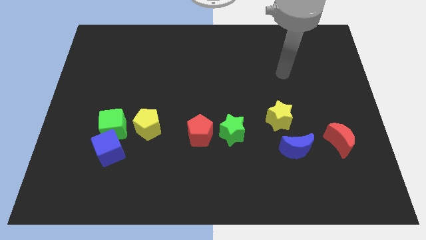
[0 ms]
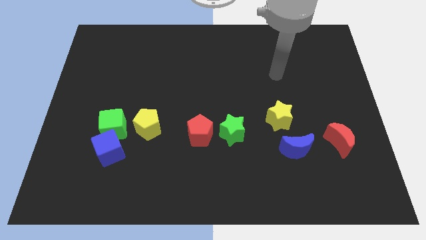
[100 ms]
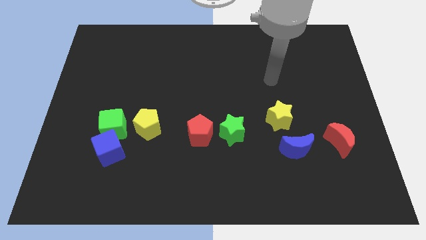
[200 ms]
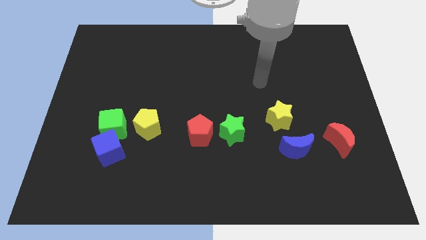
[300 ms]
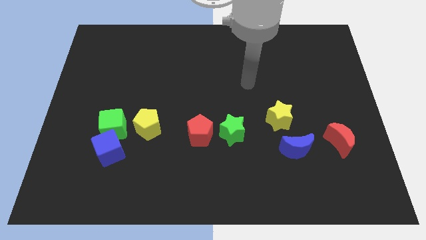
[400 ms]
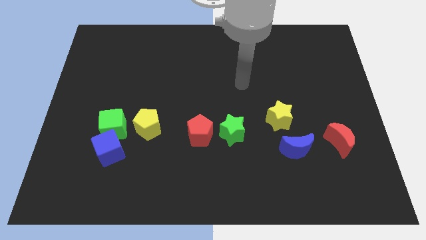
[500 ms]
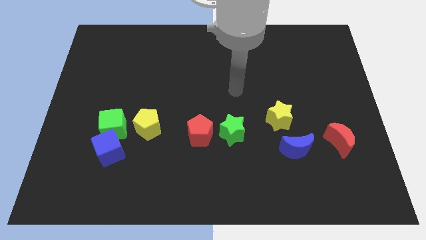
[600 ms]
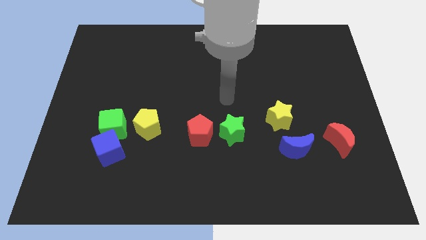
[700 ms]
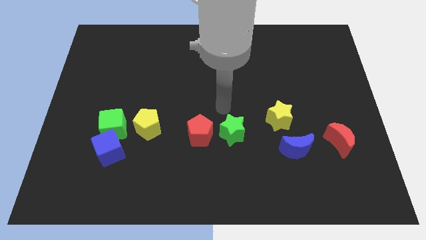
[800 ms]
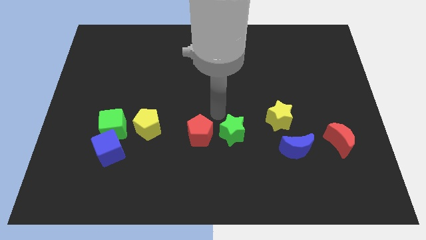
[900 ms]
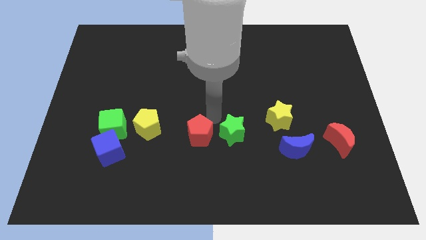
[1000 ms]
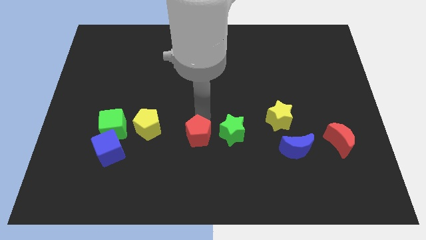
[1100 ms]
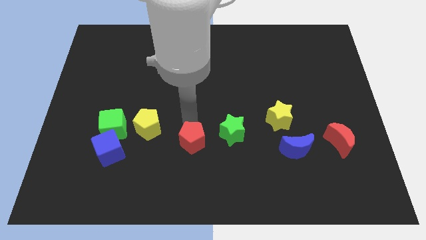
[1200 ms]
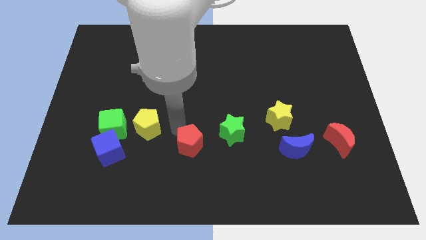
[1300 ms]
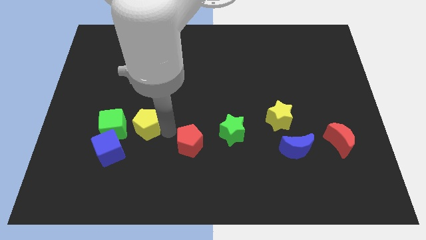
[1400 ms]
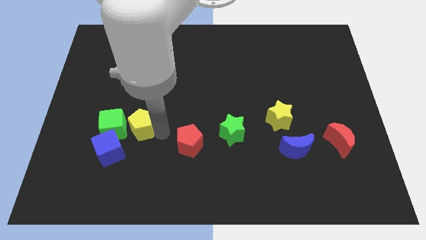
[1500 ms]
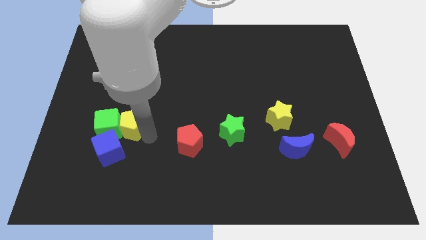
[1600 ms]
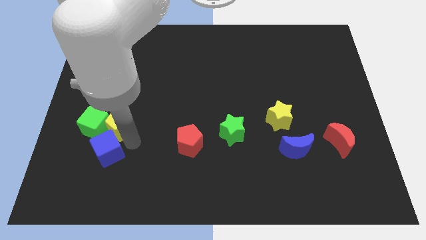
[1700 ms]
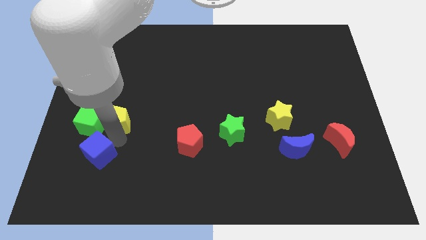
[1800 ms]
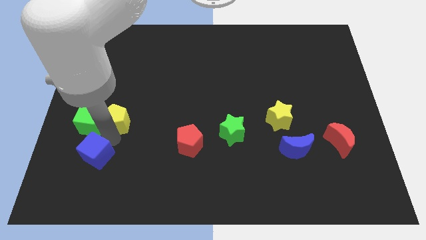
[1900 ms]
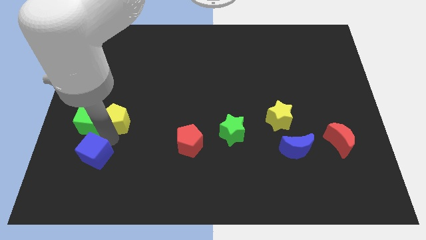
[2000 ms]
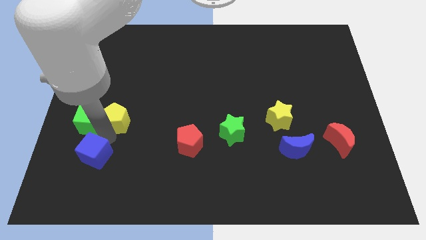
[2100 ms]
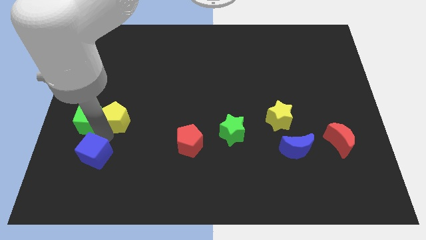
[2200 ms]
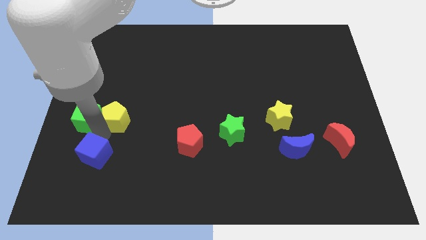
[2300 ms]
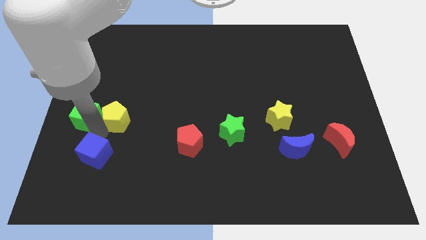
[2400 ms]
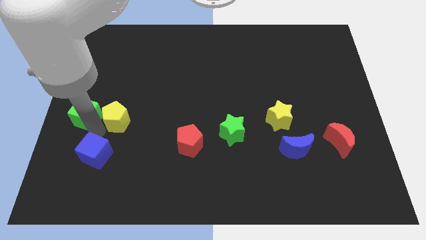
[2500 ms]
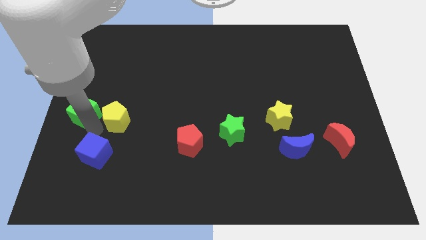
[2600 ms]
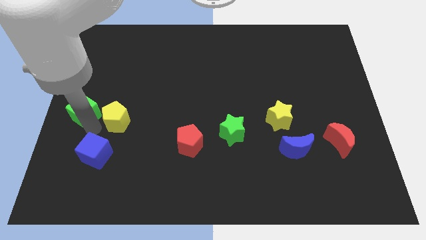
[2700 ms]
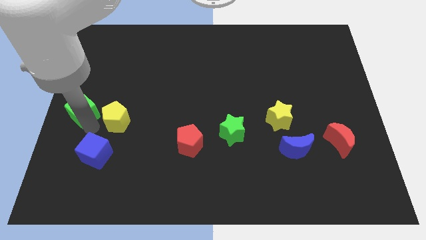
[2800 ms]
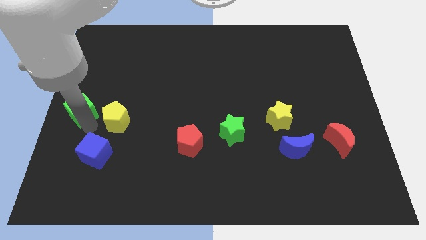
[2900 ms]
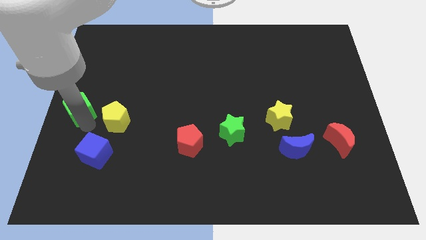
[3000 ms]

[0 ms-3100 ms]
pull the green cube apart from the blue cube and yellow pentagon

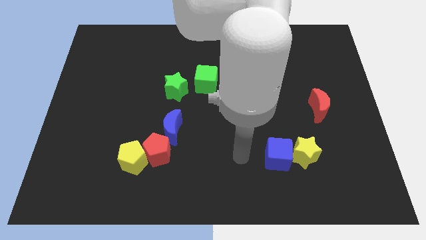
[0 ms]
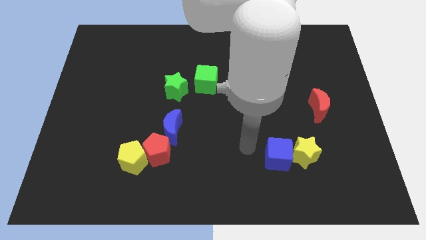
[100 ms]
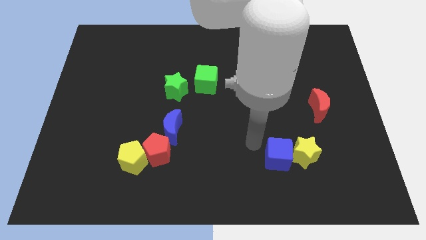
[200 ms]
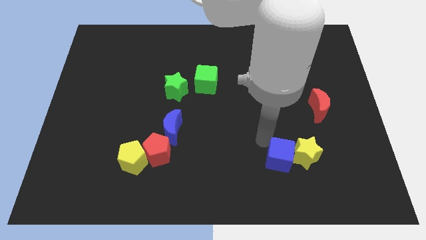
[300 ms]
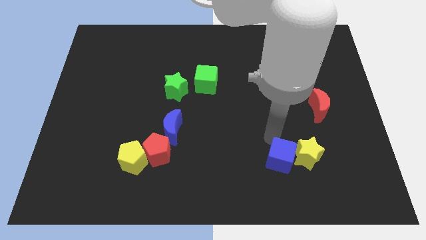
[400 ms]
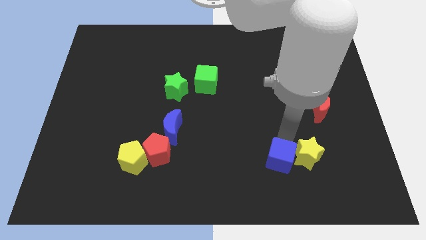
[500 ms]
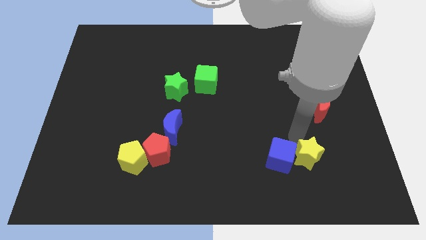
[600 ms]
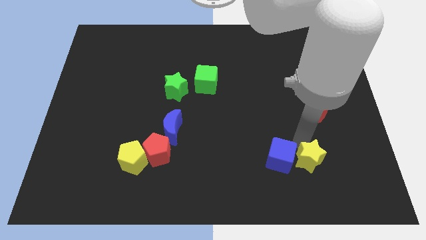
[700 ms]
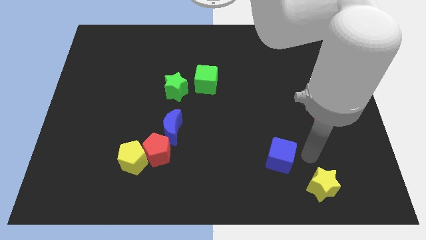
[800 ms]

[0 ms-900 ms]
move the blue cube away from the yellow star

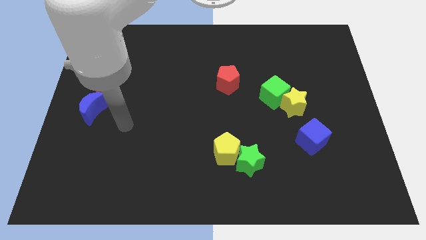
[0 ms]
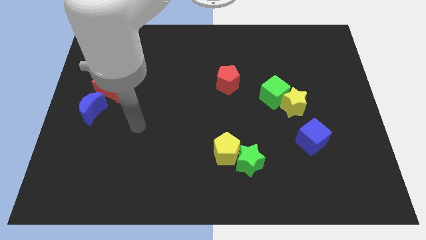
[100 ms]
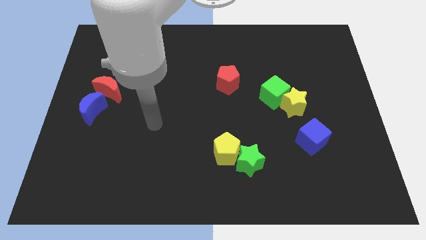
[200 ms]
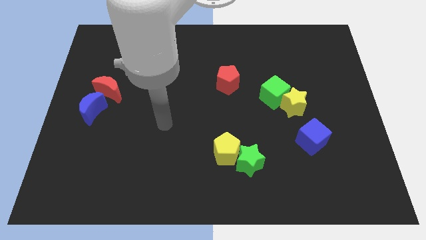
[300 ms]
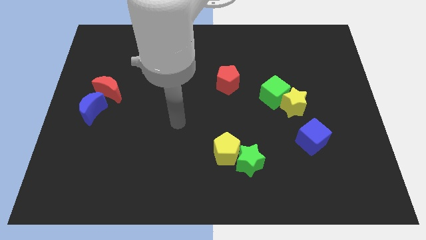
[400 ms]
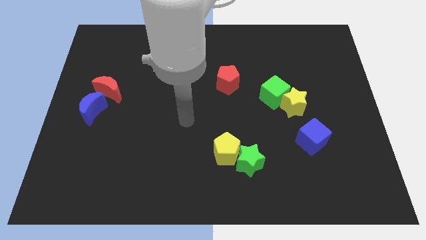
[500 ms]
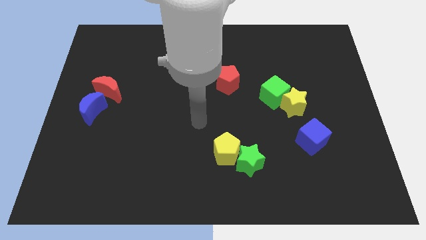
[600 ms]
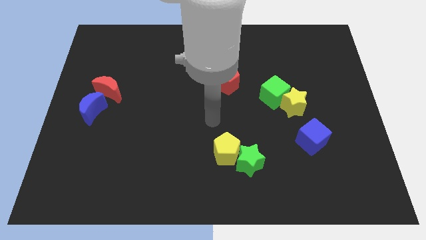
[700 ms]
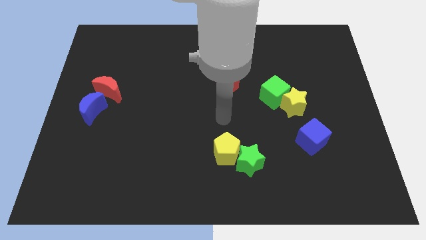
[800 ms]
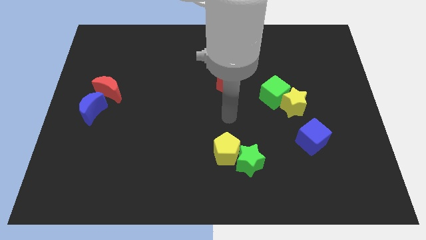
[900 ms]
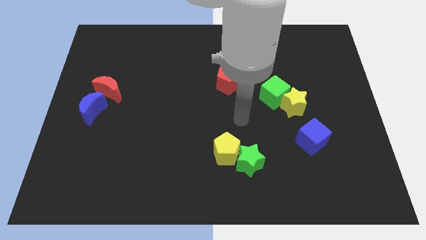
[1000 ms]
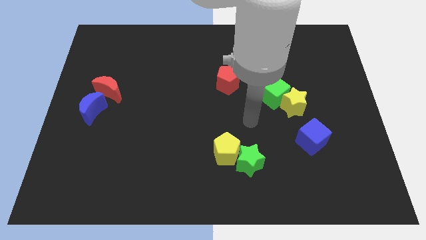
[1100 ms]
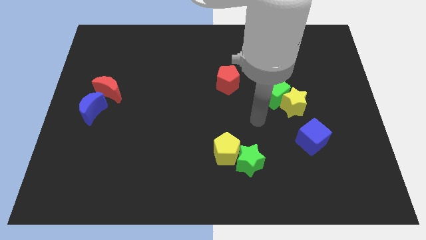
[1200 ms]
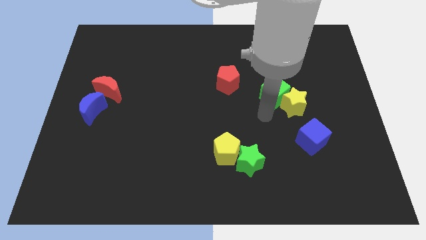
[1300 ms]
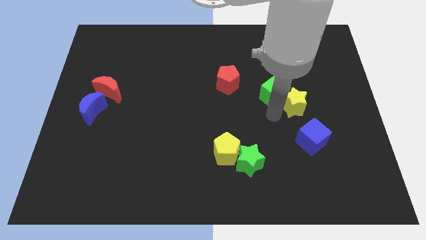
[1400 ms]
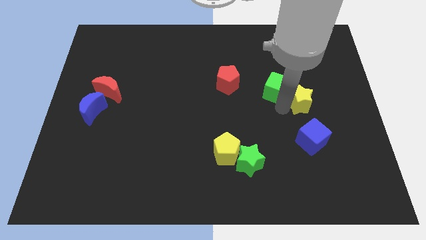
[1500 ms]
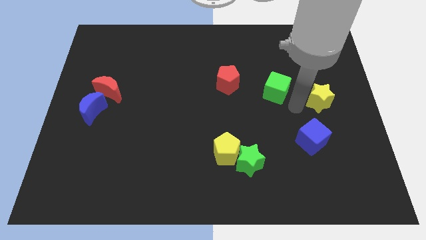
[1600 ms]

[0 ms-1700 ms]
pull the green cube apart from the yellow star

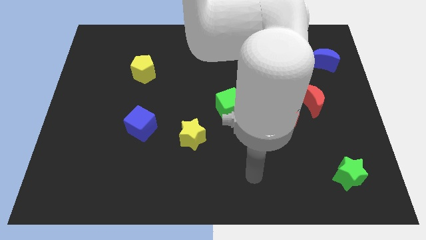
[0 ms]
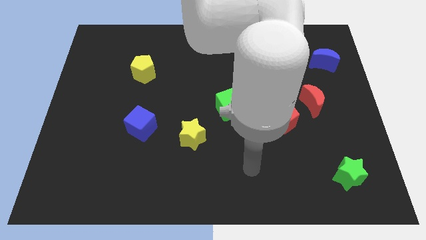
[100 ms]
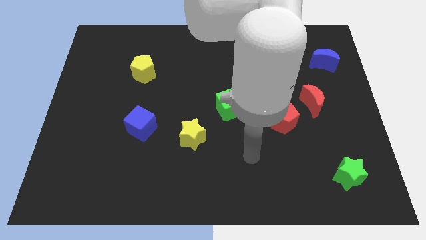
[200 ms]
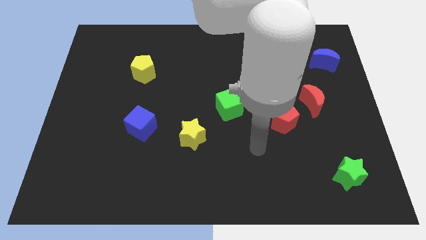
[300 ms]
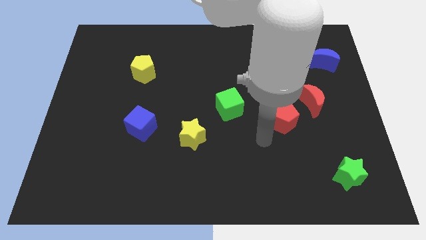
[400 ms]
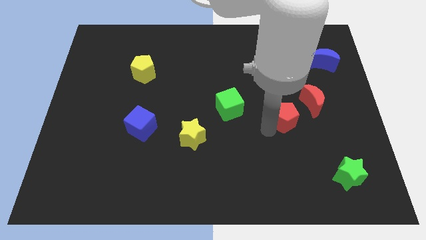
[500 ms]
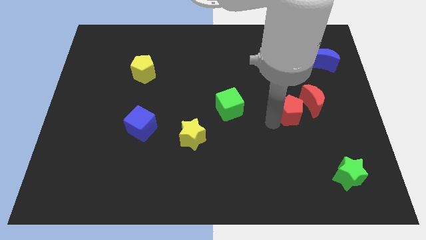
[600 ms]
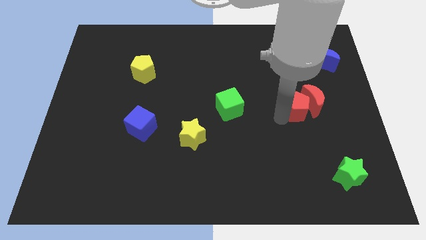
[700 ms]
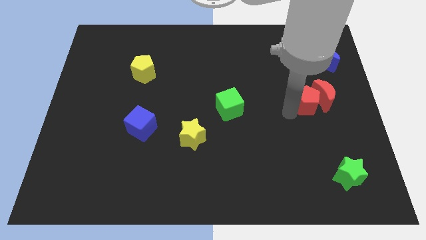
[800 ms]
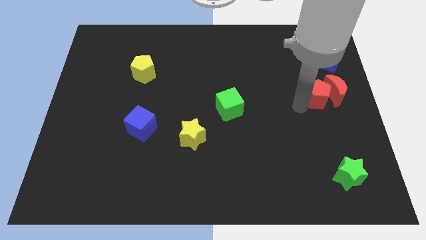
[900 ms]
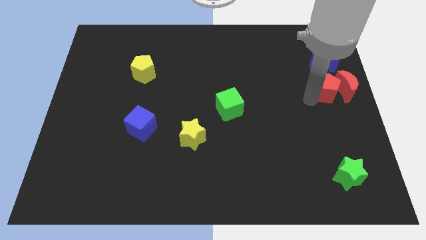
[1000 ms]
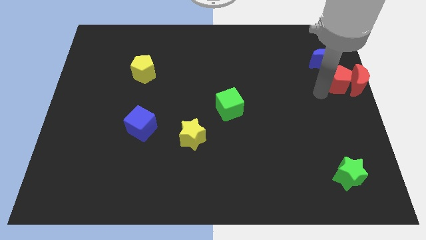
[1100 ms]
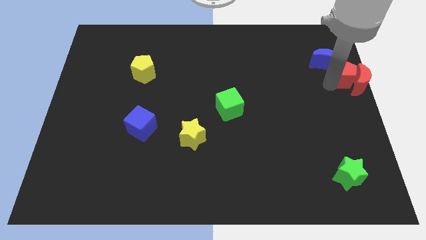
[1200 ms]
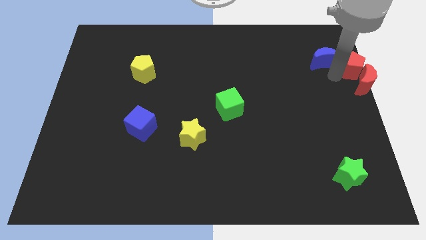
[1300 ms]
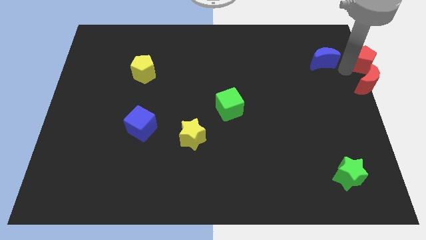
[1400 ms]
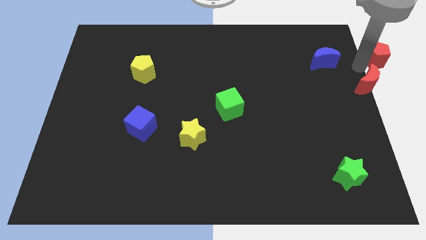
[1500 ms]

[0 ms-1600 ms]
move the red moon away from the red pentagon

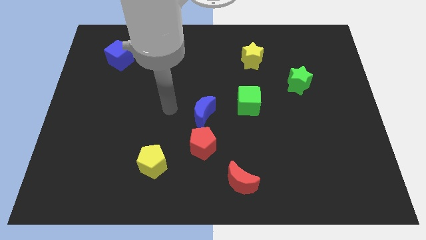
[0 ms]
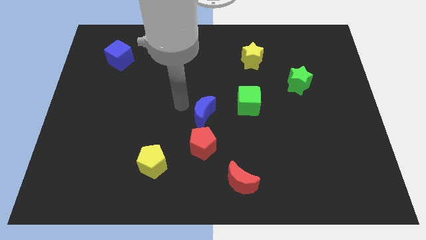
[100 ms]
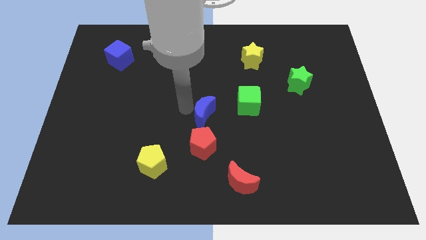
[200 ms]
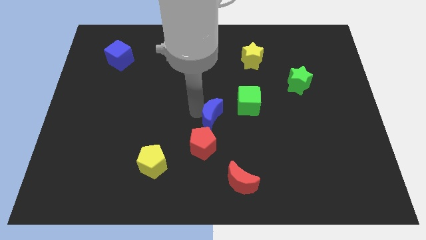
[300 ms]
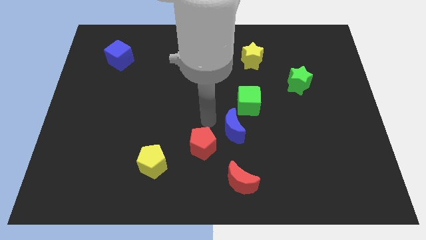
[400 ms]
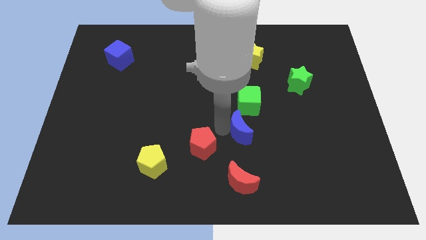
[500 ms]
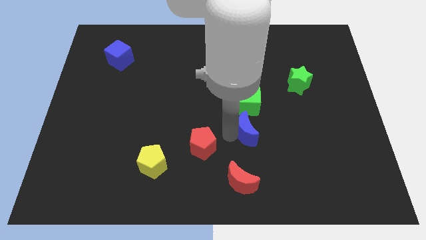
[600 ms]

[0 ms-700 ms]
move the red pentagon away from the blue moon

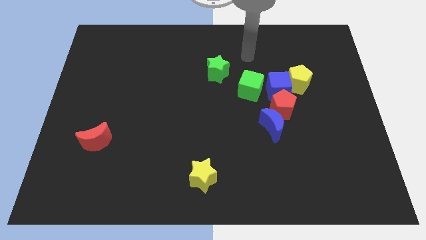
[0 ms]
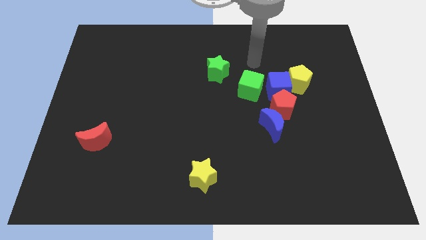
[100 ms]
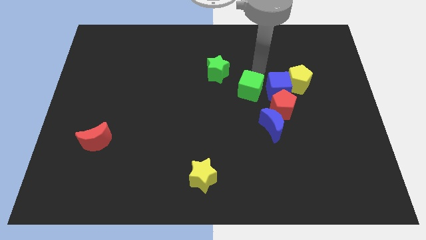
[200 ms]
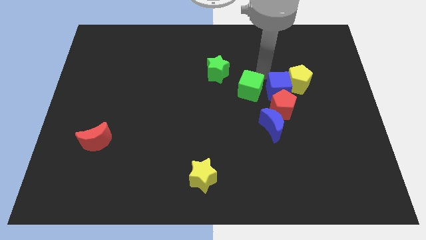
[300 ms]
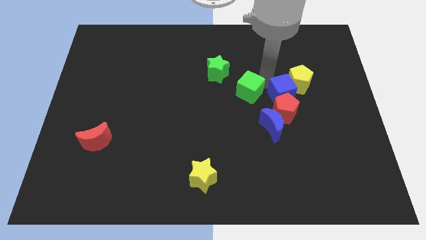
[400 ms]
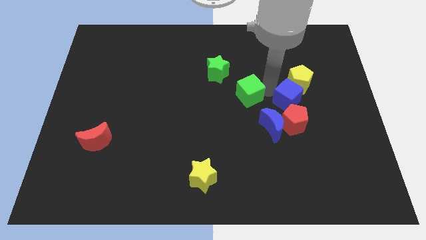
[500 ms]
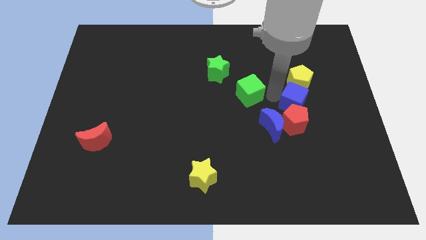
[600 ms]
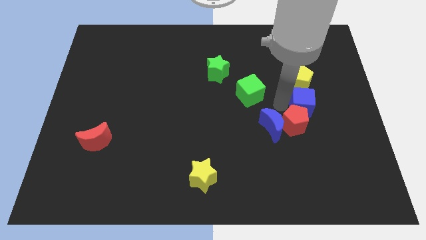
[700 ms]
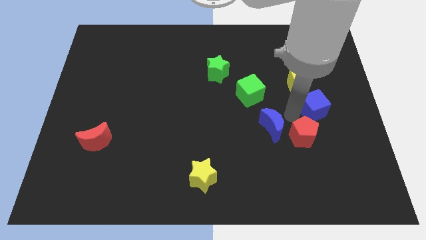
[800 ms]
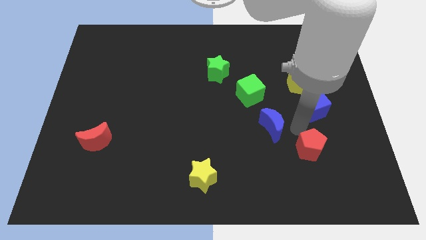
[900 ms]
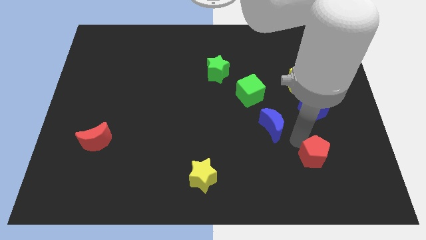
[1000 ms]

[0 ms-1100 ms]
move the blue moon away from the red pentagon

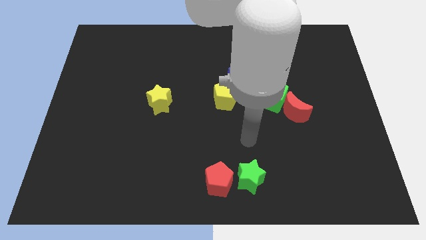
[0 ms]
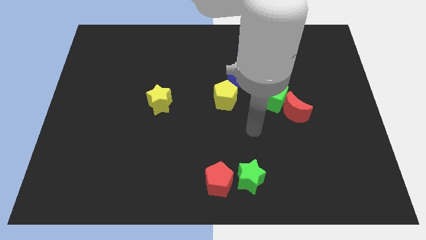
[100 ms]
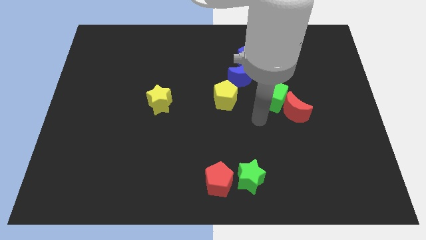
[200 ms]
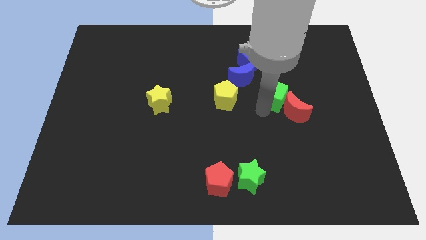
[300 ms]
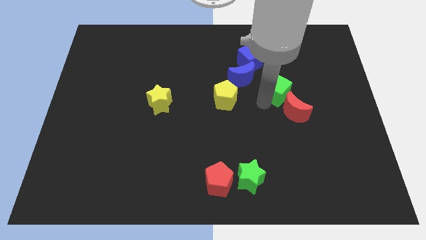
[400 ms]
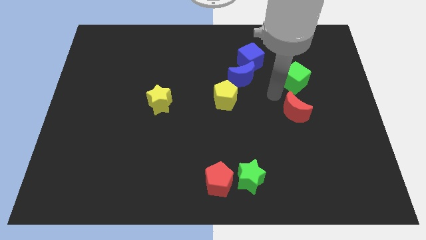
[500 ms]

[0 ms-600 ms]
pull the red moon apart from the green cube
